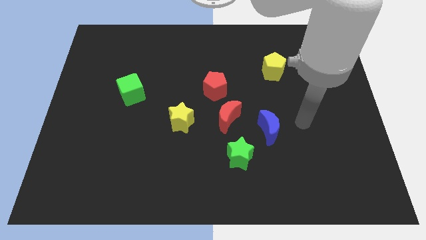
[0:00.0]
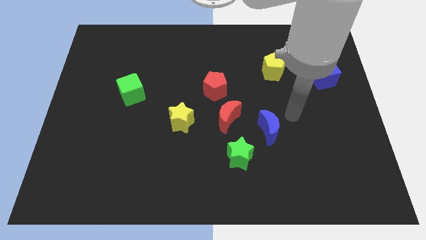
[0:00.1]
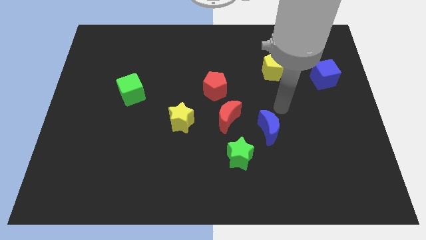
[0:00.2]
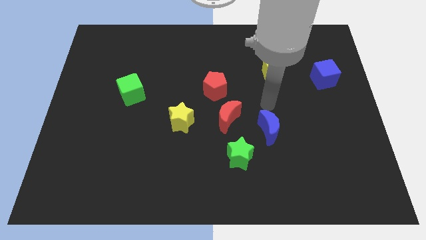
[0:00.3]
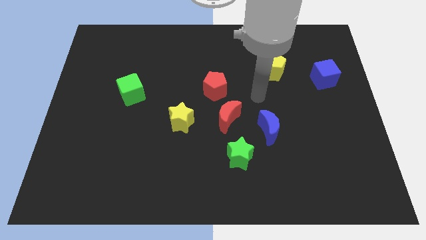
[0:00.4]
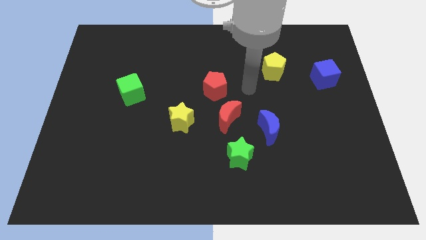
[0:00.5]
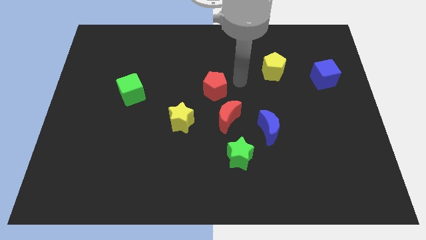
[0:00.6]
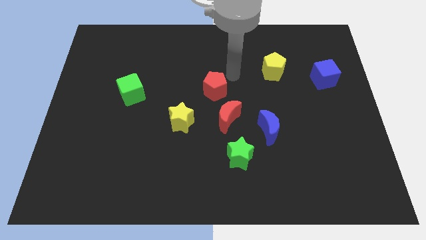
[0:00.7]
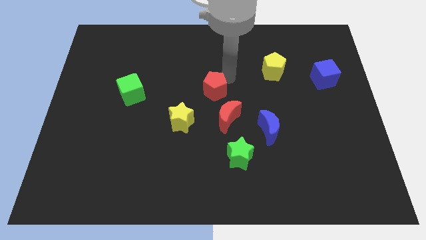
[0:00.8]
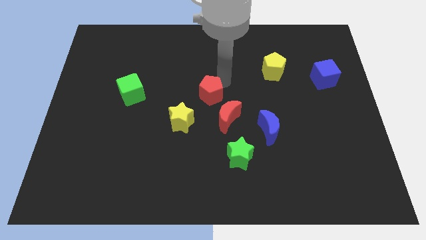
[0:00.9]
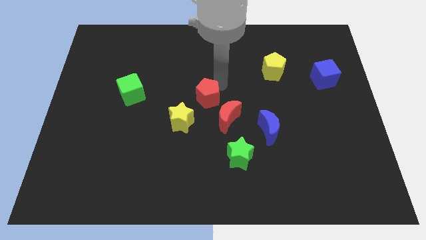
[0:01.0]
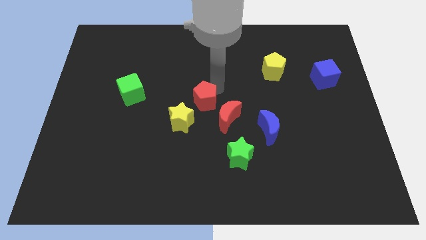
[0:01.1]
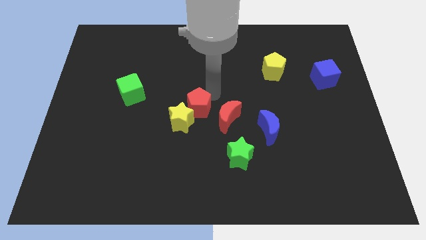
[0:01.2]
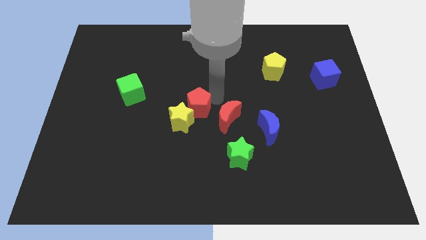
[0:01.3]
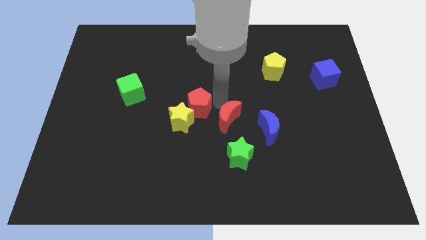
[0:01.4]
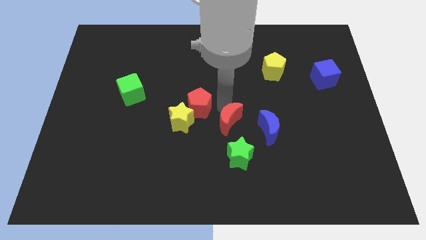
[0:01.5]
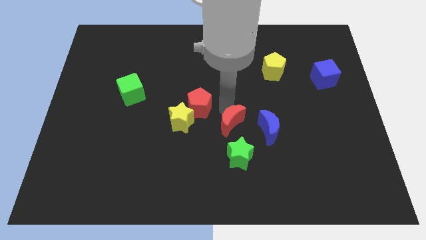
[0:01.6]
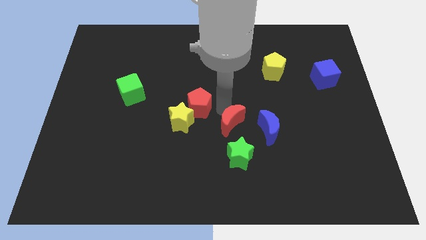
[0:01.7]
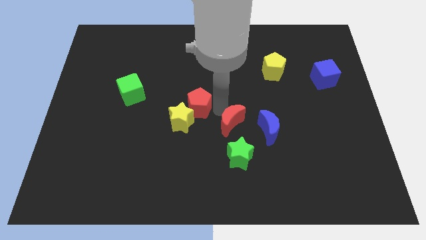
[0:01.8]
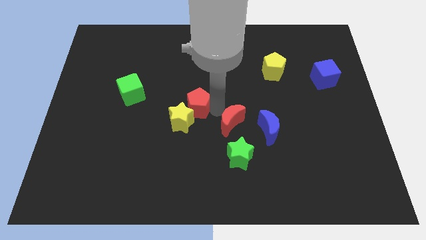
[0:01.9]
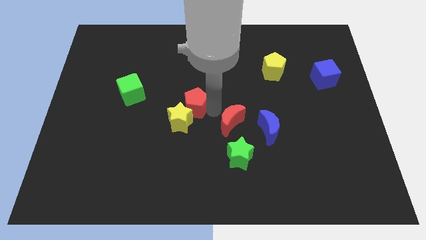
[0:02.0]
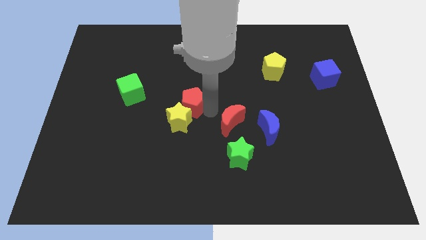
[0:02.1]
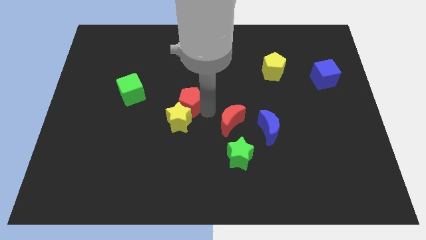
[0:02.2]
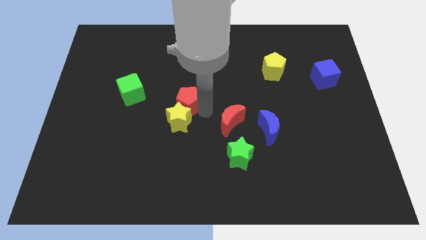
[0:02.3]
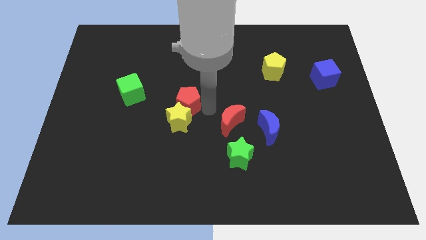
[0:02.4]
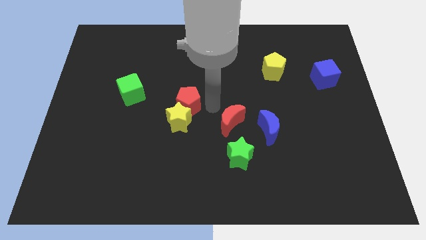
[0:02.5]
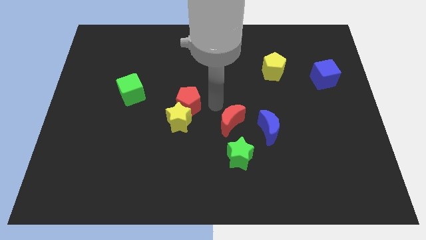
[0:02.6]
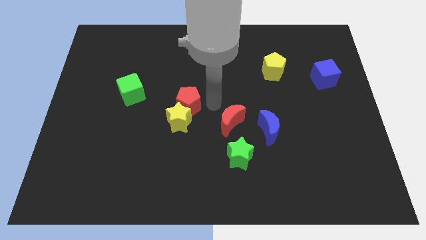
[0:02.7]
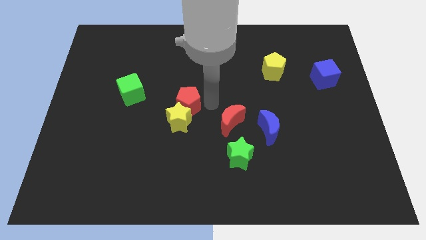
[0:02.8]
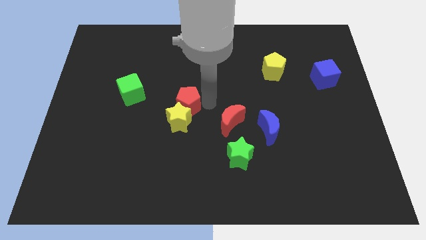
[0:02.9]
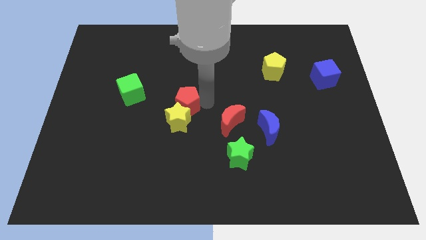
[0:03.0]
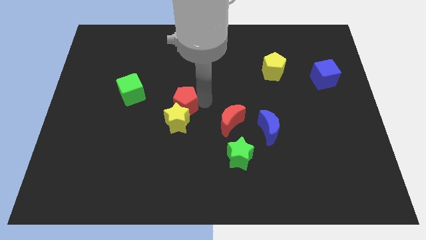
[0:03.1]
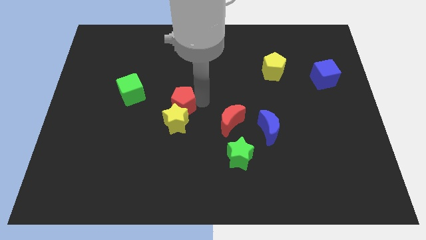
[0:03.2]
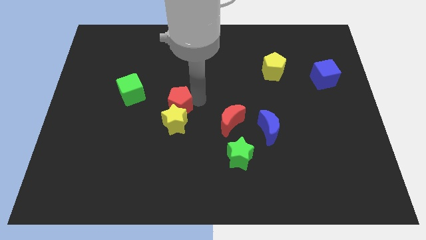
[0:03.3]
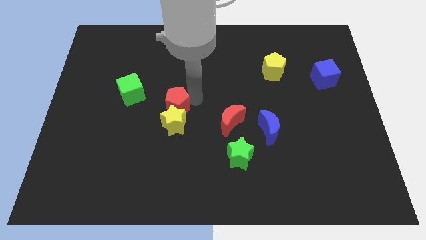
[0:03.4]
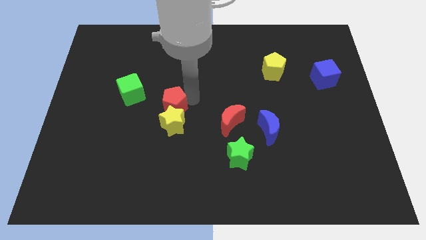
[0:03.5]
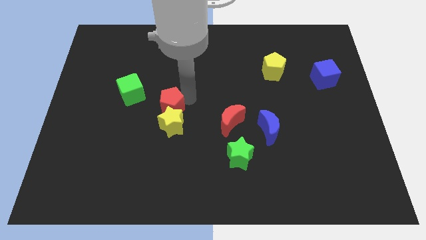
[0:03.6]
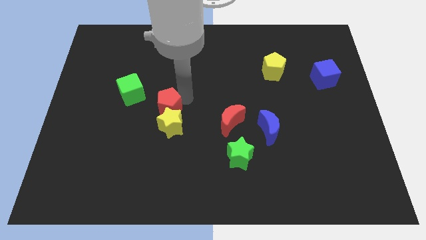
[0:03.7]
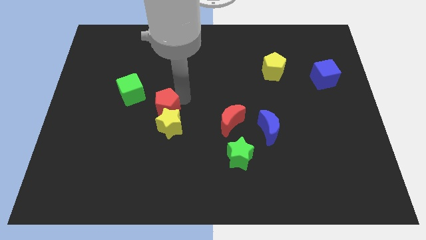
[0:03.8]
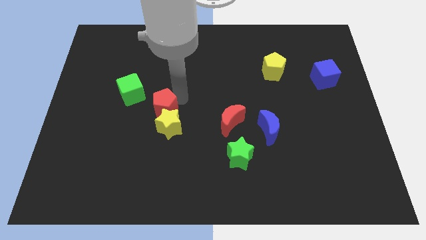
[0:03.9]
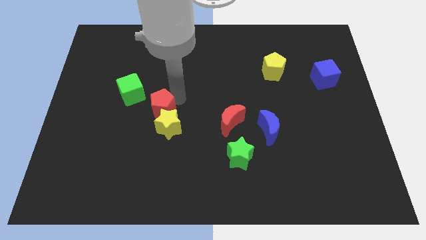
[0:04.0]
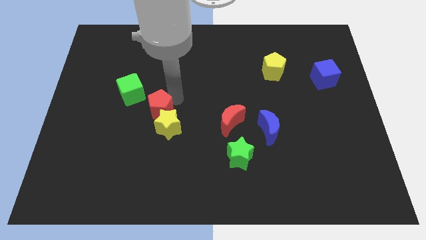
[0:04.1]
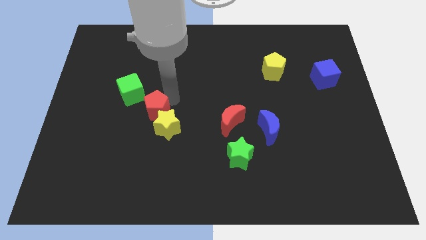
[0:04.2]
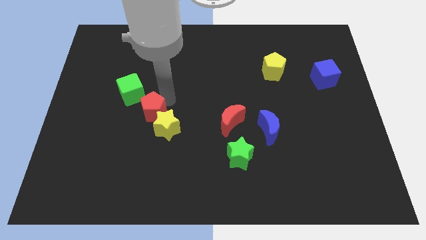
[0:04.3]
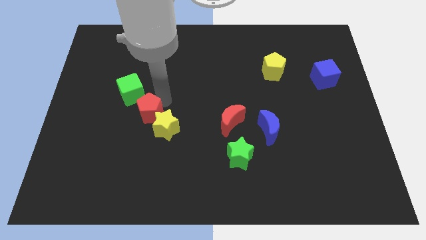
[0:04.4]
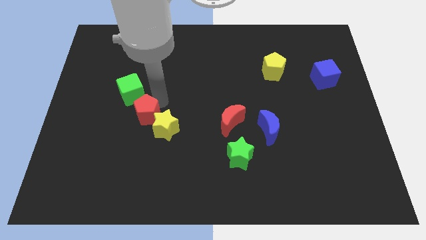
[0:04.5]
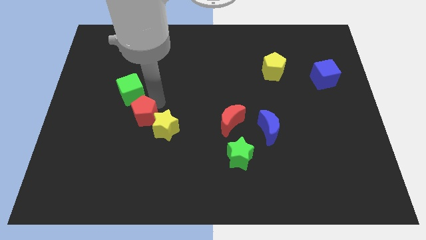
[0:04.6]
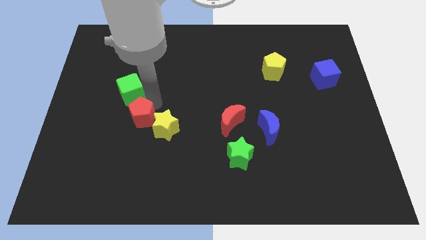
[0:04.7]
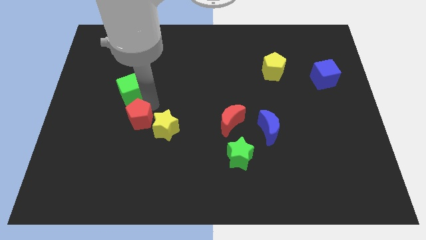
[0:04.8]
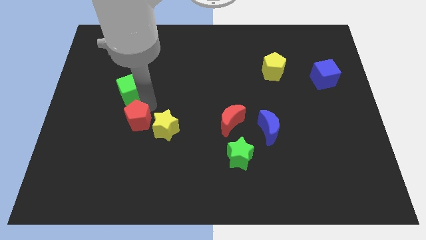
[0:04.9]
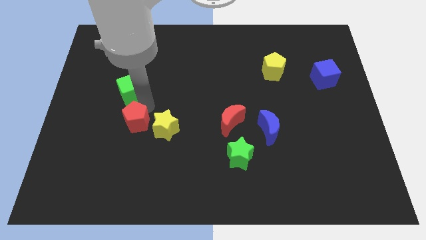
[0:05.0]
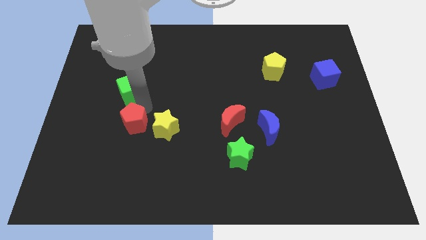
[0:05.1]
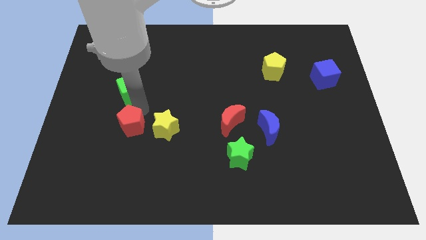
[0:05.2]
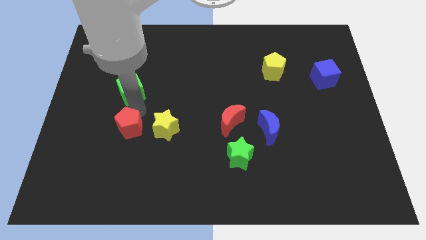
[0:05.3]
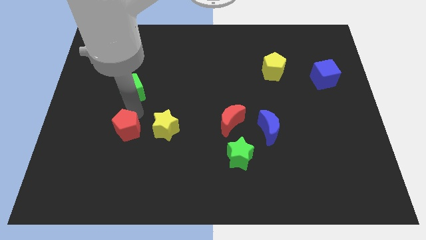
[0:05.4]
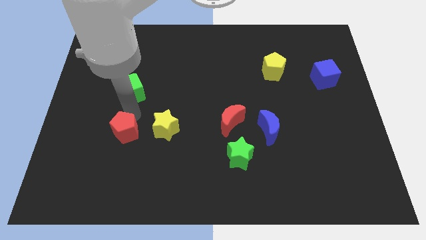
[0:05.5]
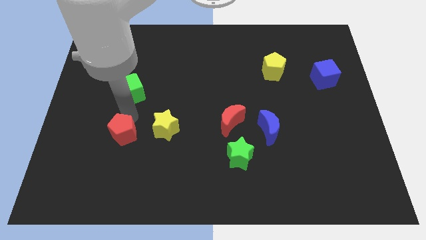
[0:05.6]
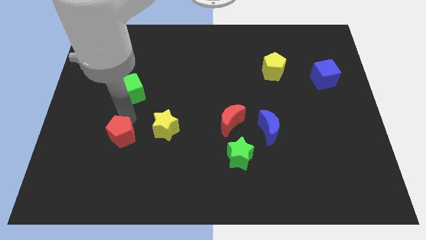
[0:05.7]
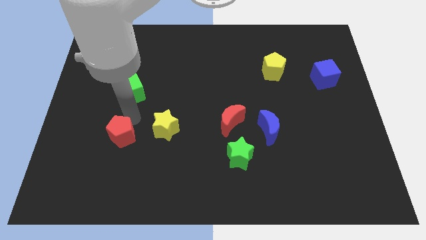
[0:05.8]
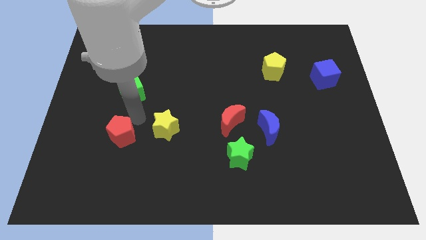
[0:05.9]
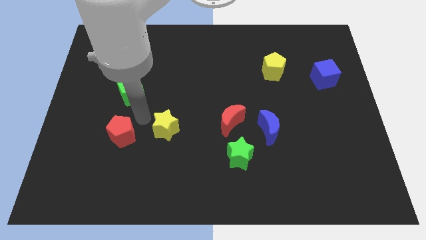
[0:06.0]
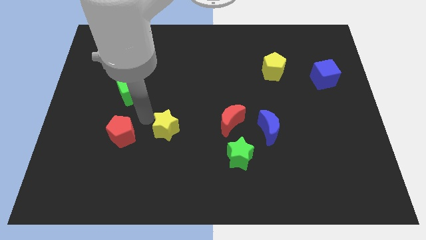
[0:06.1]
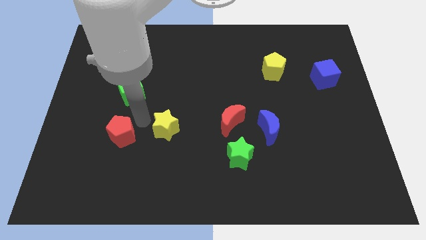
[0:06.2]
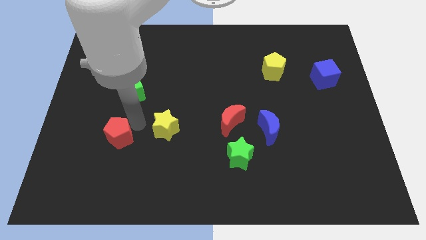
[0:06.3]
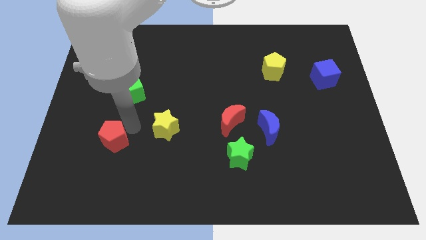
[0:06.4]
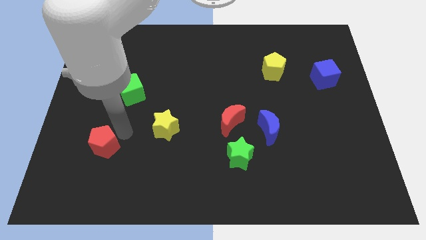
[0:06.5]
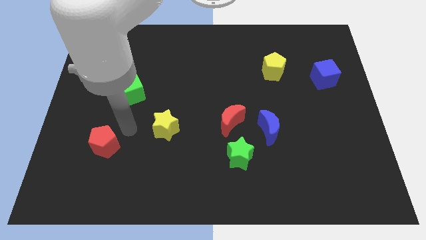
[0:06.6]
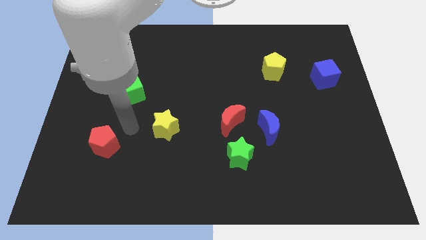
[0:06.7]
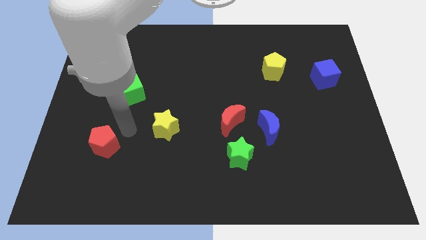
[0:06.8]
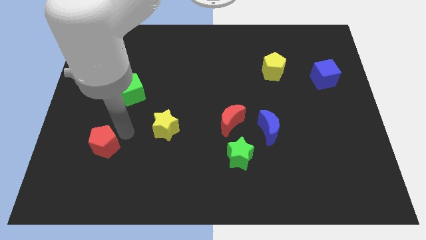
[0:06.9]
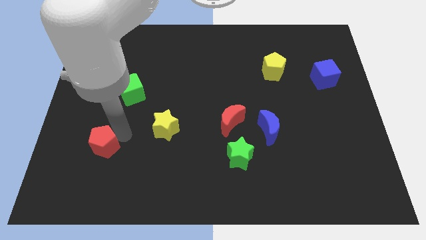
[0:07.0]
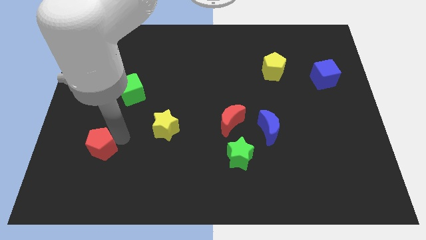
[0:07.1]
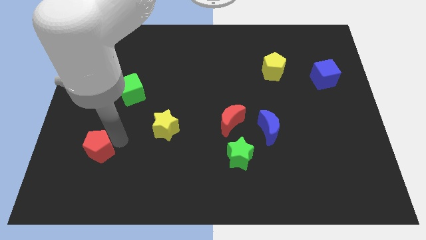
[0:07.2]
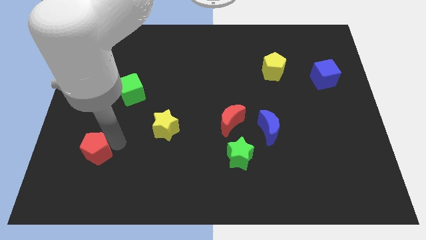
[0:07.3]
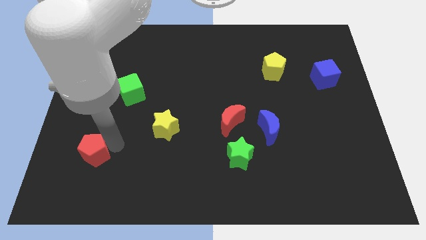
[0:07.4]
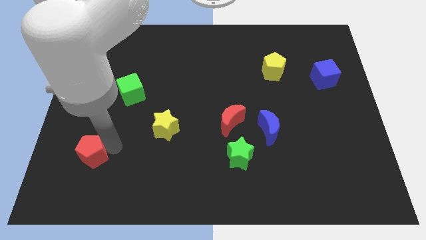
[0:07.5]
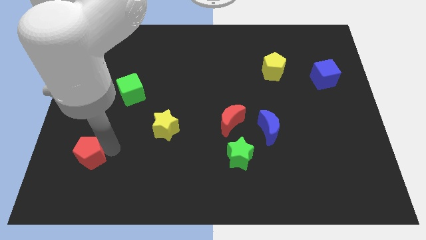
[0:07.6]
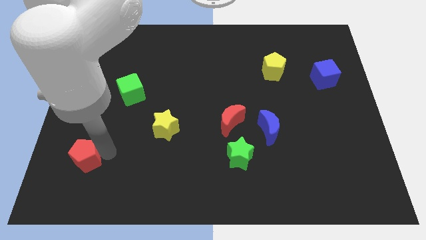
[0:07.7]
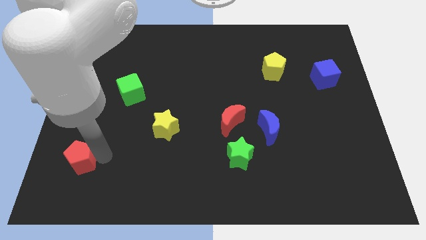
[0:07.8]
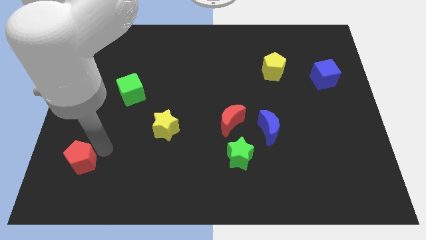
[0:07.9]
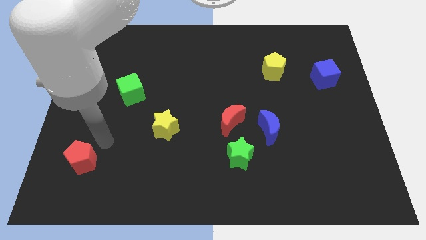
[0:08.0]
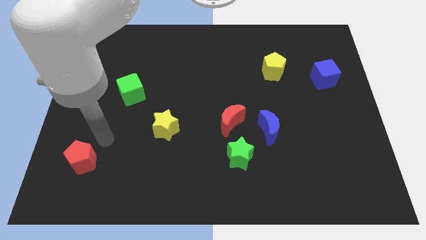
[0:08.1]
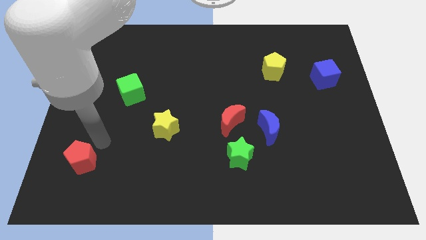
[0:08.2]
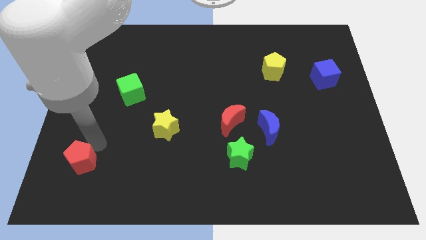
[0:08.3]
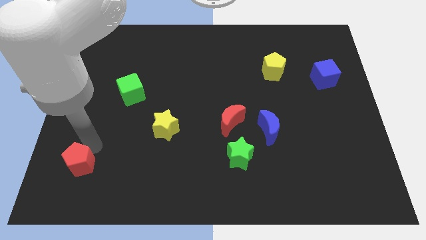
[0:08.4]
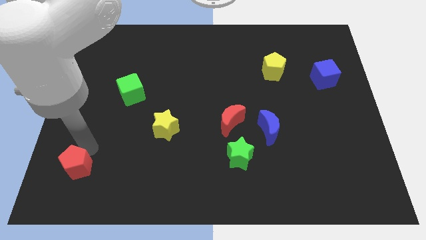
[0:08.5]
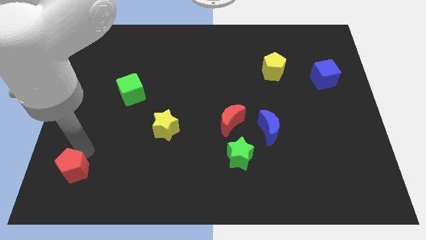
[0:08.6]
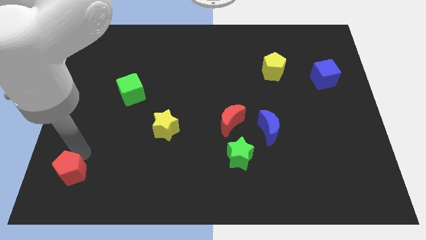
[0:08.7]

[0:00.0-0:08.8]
move the red pentagon to the lower left corner
